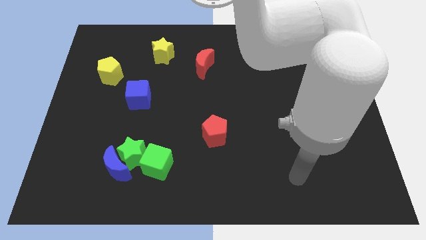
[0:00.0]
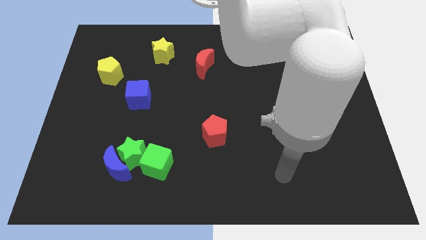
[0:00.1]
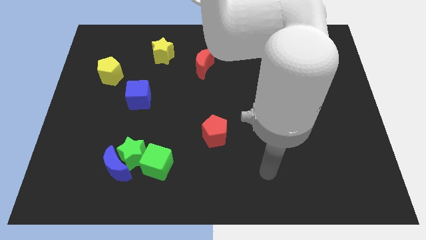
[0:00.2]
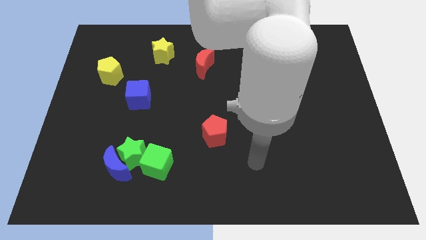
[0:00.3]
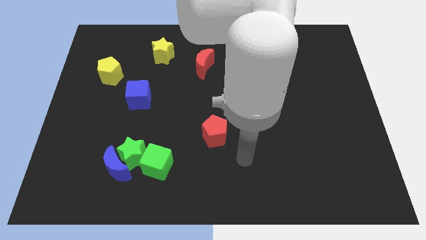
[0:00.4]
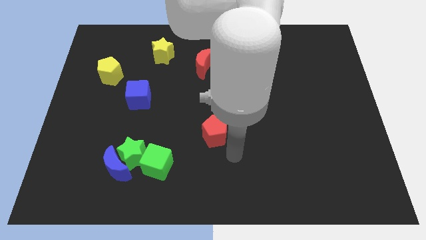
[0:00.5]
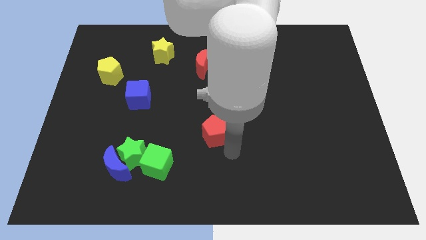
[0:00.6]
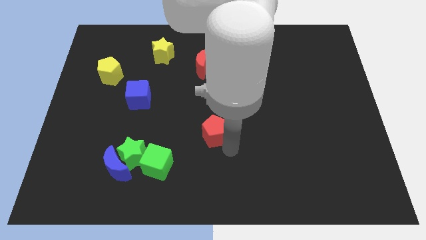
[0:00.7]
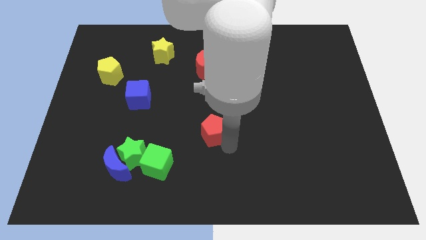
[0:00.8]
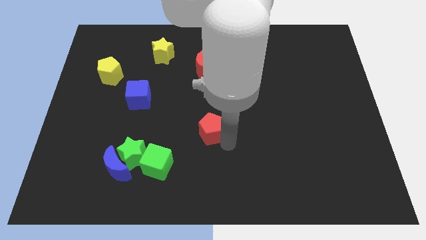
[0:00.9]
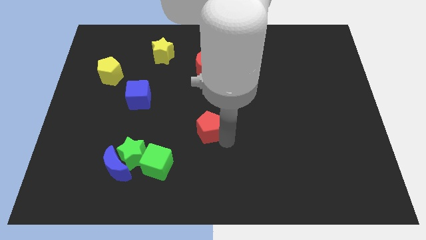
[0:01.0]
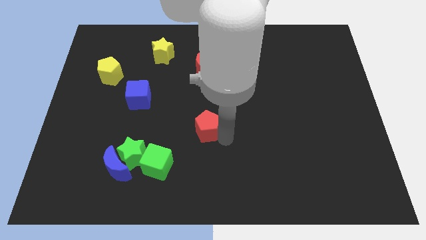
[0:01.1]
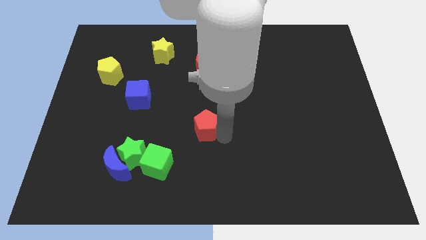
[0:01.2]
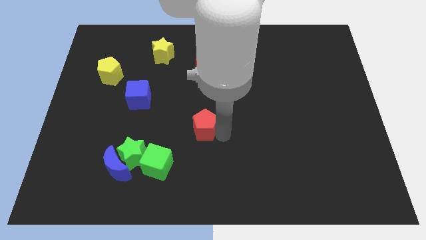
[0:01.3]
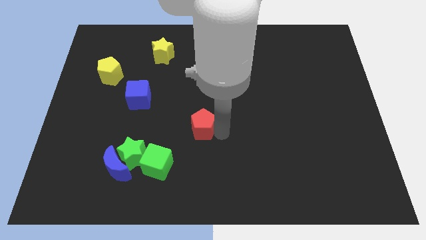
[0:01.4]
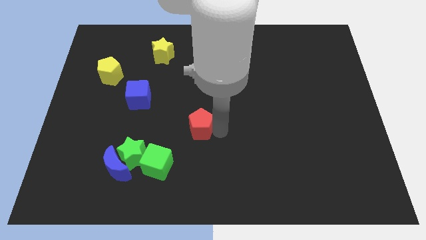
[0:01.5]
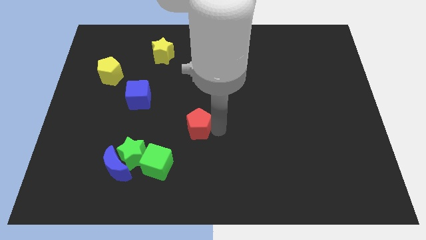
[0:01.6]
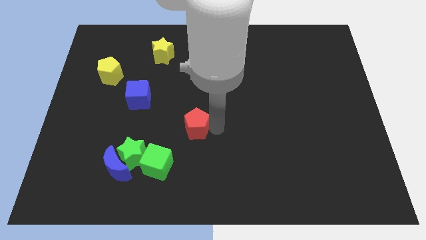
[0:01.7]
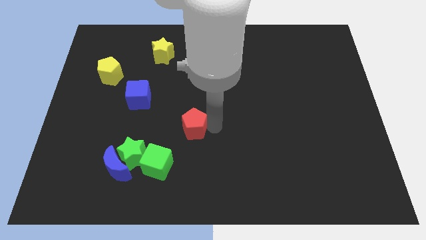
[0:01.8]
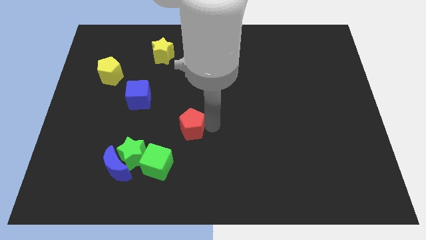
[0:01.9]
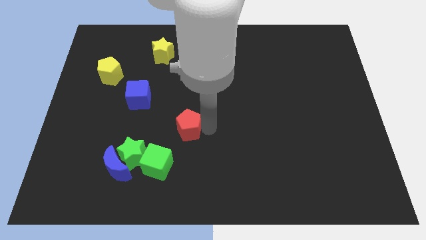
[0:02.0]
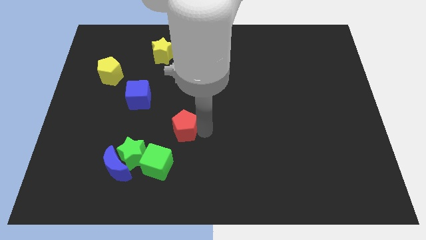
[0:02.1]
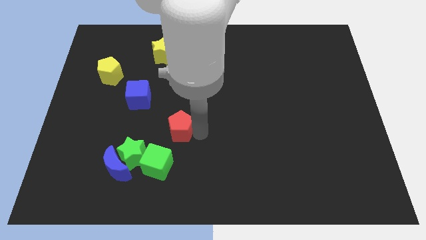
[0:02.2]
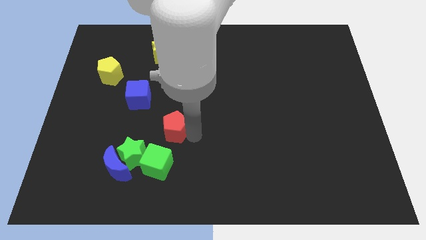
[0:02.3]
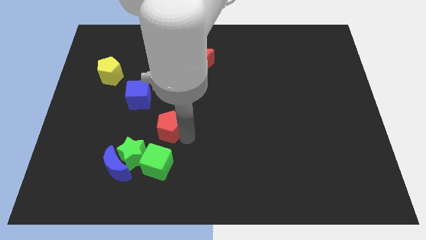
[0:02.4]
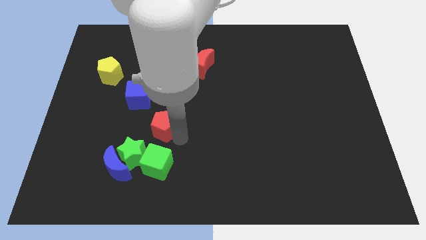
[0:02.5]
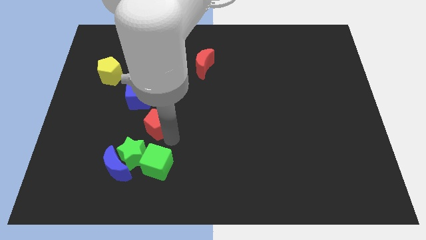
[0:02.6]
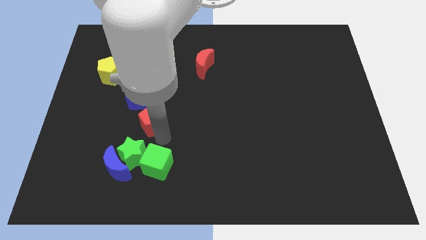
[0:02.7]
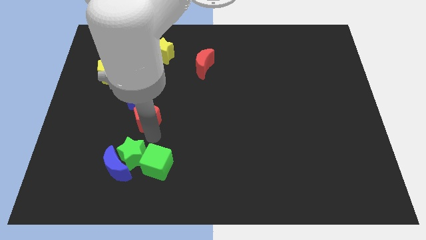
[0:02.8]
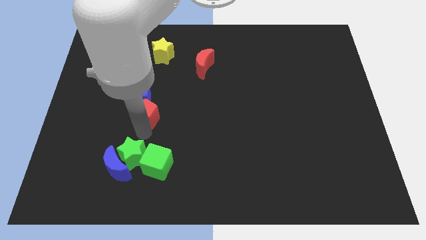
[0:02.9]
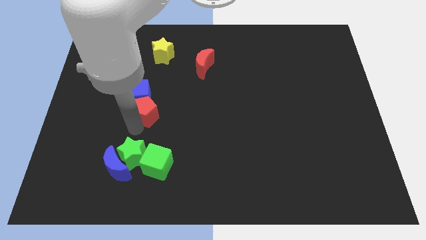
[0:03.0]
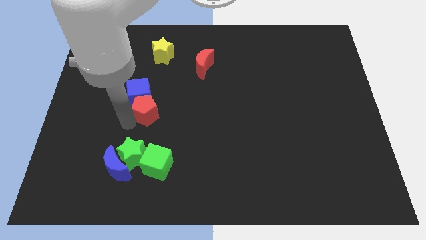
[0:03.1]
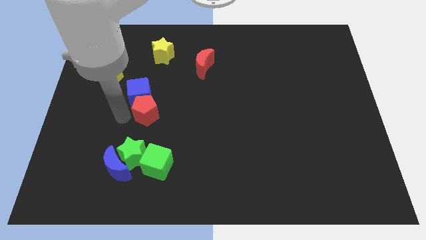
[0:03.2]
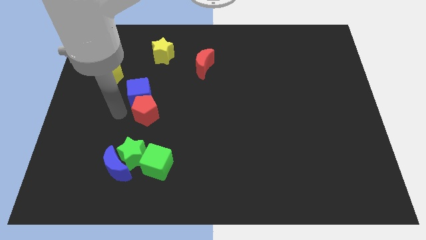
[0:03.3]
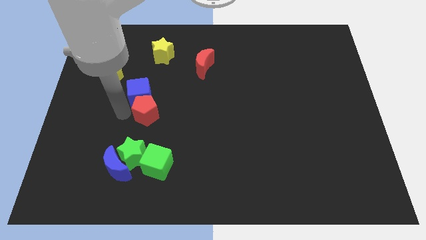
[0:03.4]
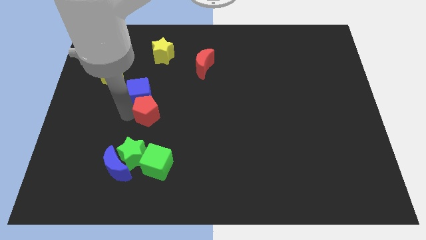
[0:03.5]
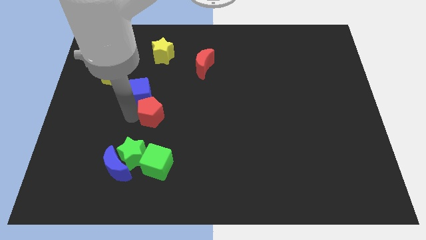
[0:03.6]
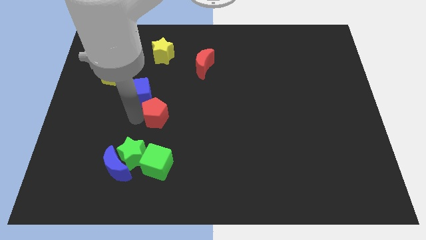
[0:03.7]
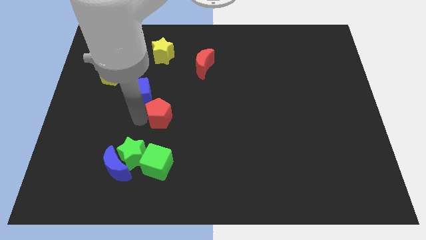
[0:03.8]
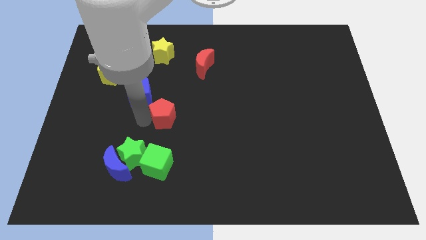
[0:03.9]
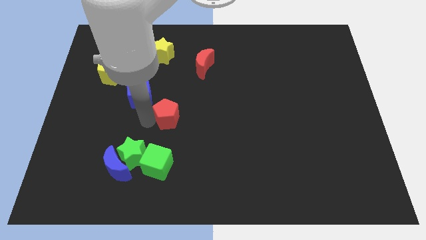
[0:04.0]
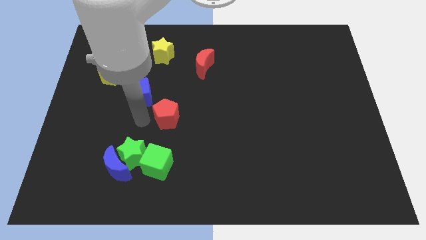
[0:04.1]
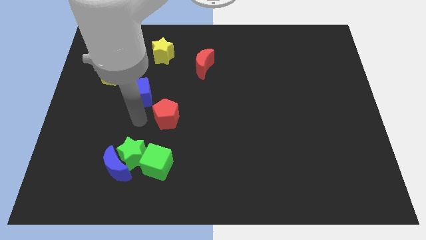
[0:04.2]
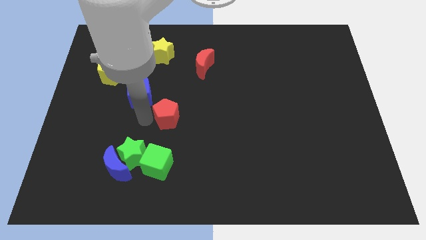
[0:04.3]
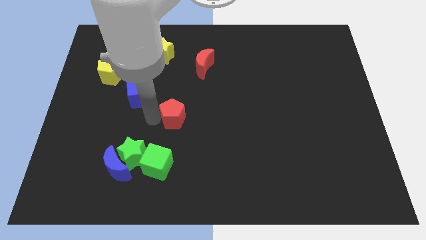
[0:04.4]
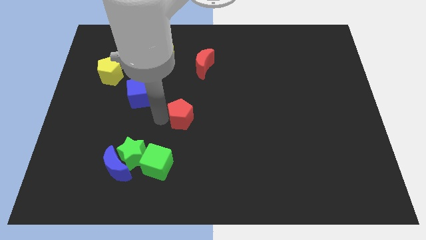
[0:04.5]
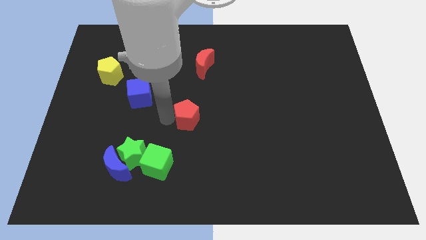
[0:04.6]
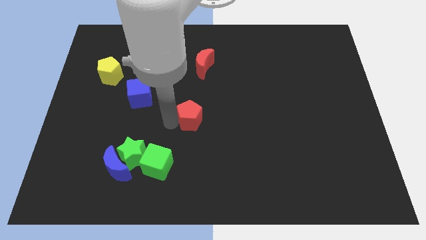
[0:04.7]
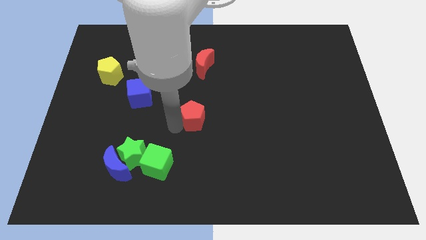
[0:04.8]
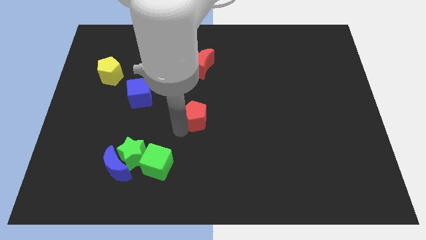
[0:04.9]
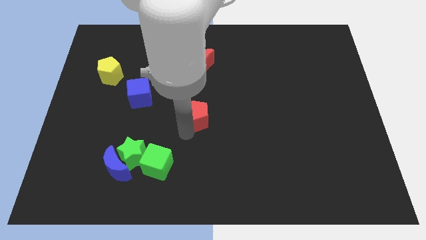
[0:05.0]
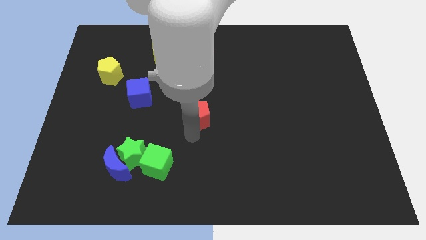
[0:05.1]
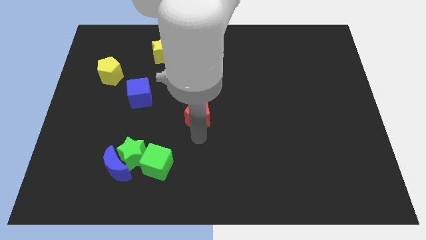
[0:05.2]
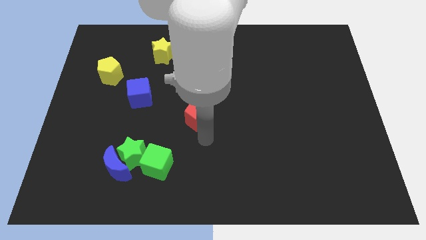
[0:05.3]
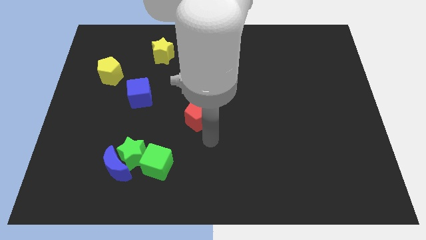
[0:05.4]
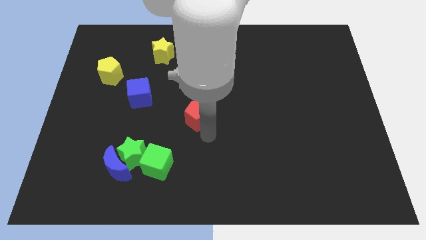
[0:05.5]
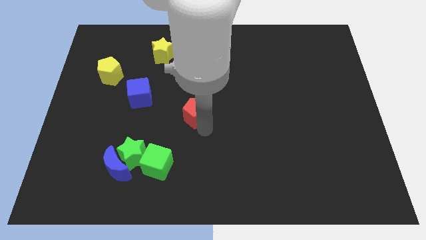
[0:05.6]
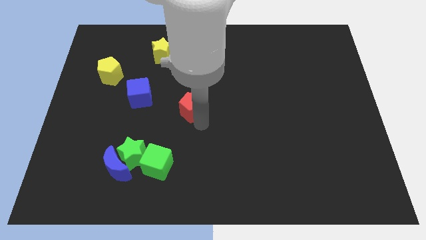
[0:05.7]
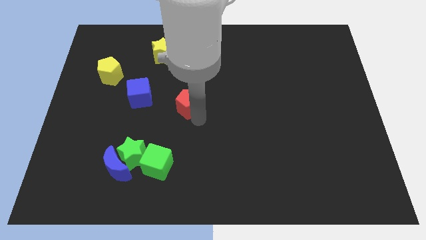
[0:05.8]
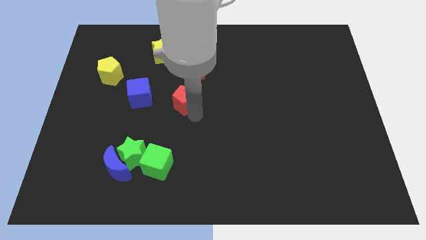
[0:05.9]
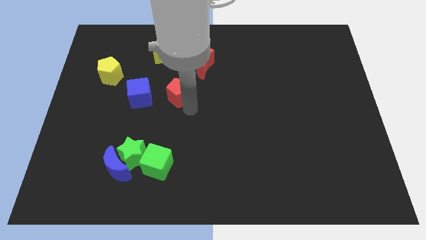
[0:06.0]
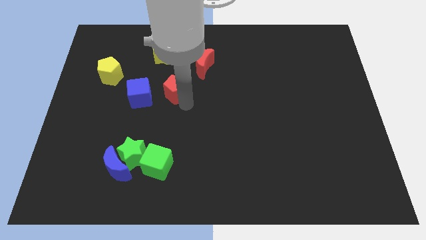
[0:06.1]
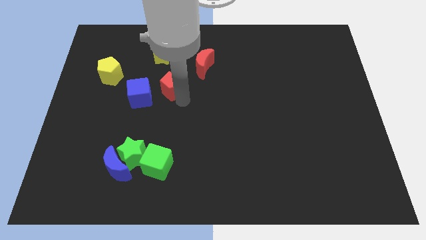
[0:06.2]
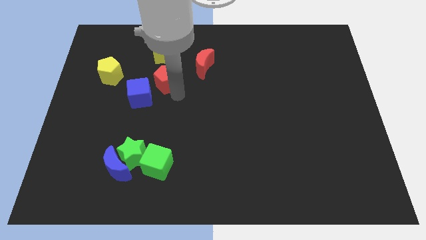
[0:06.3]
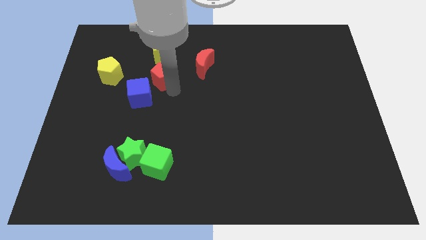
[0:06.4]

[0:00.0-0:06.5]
push the red pentagon to the left side of the red moon
